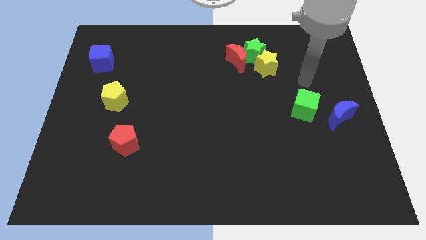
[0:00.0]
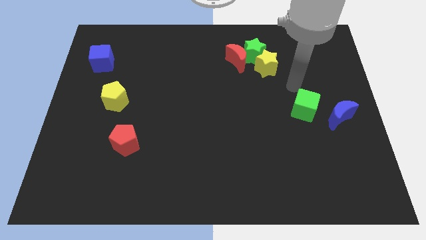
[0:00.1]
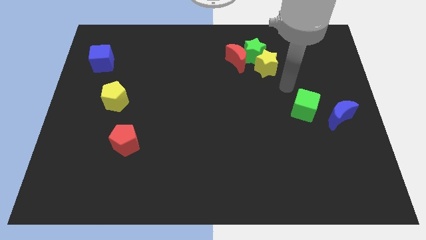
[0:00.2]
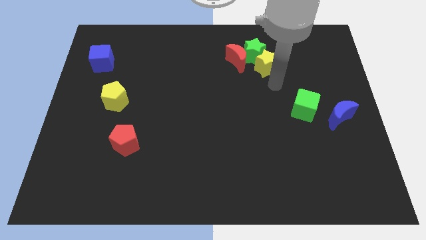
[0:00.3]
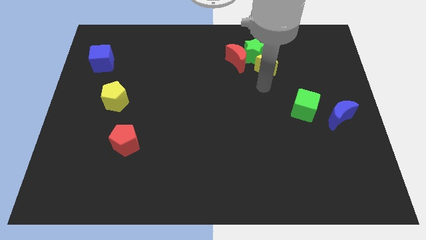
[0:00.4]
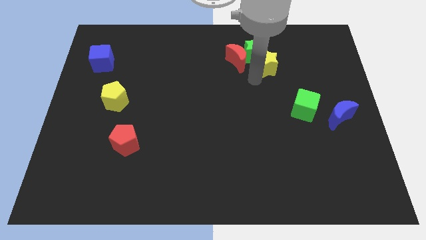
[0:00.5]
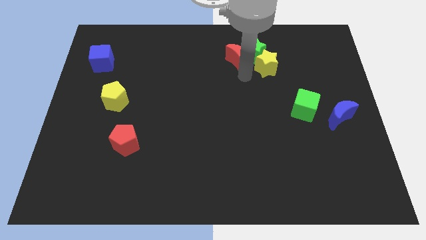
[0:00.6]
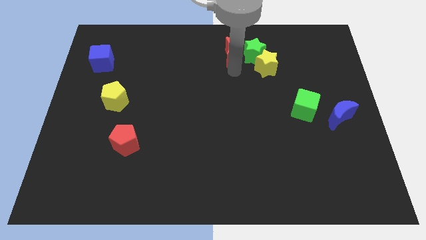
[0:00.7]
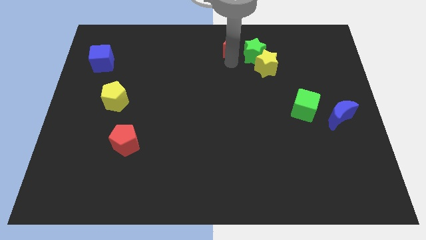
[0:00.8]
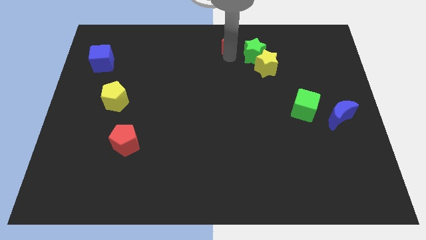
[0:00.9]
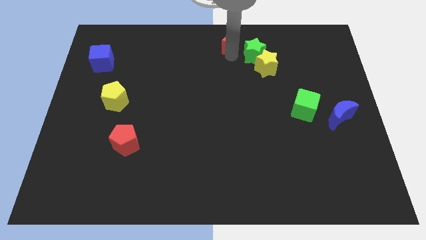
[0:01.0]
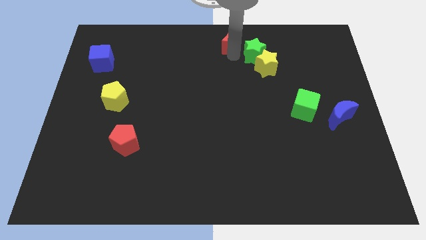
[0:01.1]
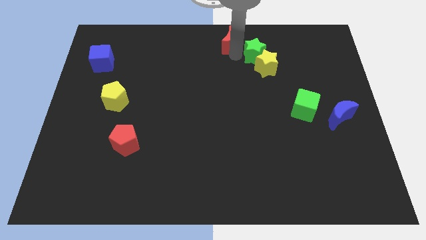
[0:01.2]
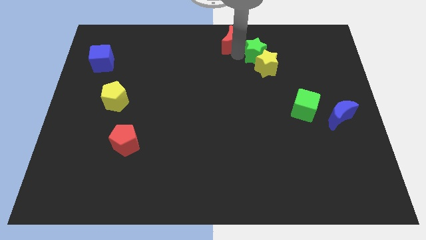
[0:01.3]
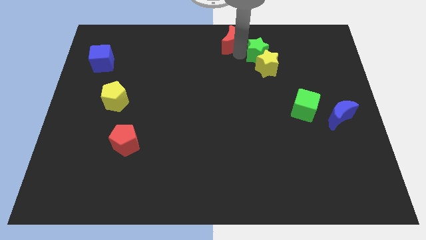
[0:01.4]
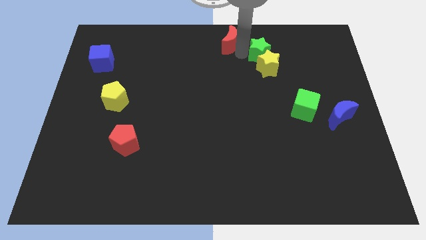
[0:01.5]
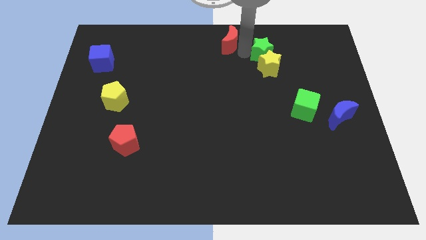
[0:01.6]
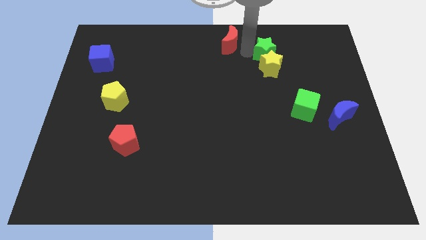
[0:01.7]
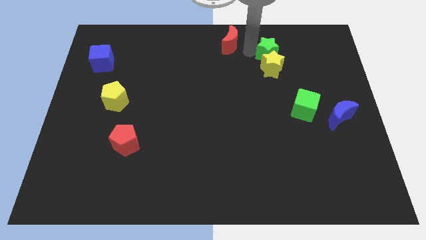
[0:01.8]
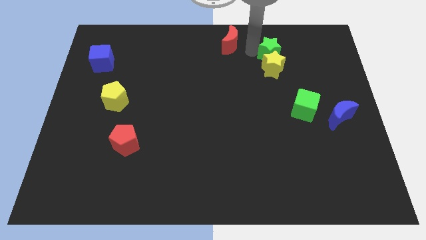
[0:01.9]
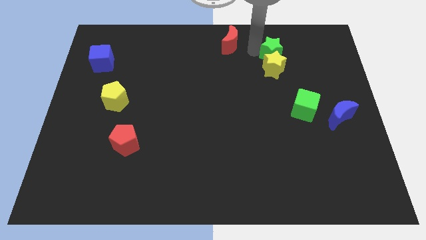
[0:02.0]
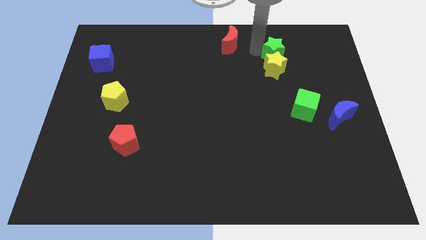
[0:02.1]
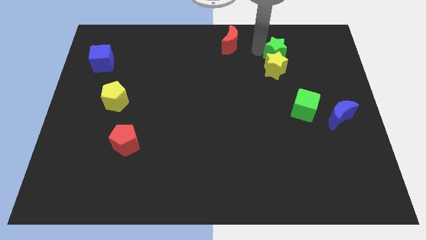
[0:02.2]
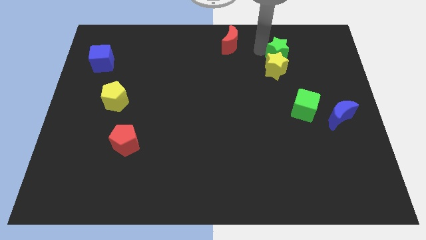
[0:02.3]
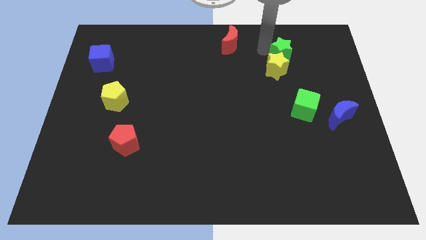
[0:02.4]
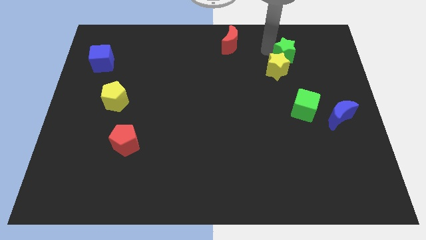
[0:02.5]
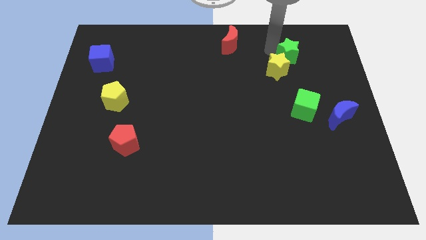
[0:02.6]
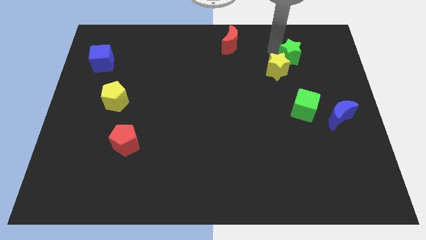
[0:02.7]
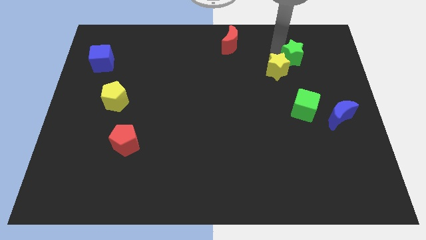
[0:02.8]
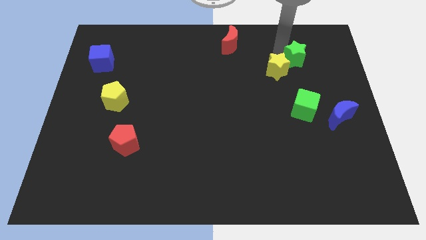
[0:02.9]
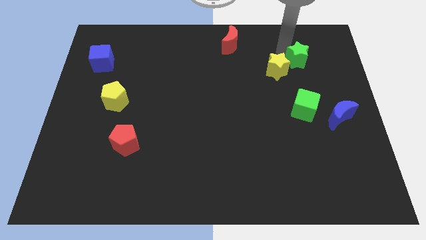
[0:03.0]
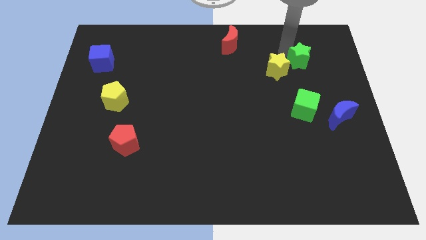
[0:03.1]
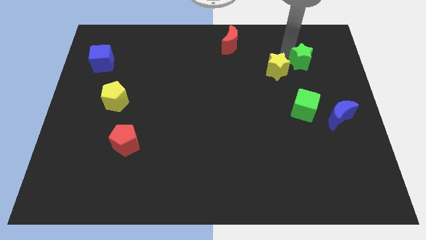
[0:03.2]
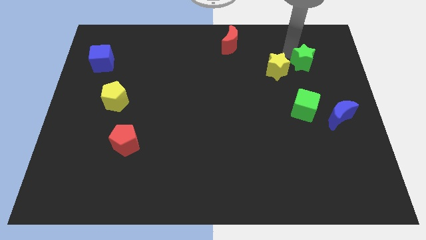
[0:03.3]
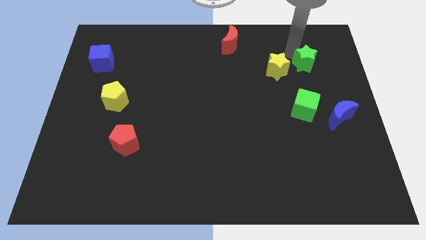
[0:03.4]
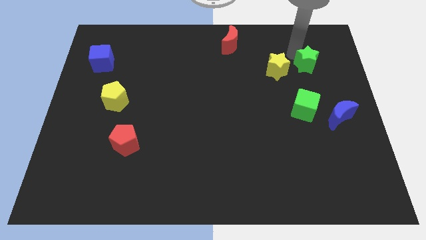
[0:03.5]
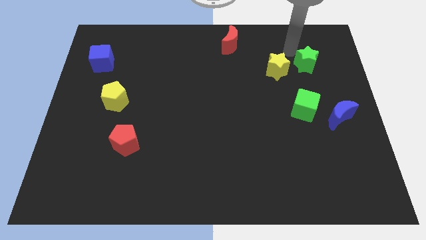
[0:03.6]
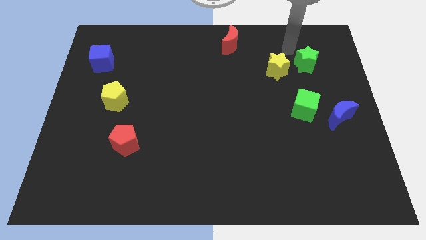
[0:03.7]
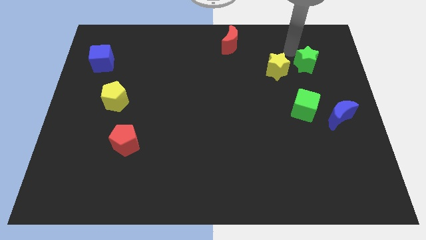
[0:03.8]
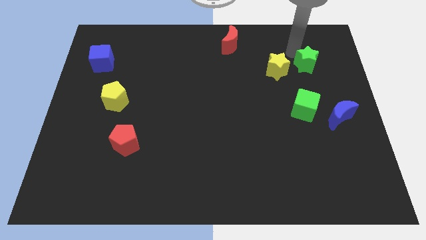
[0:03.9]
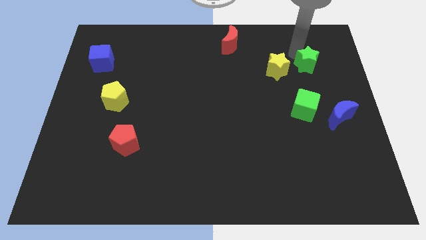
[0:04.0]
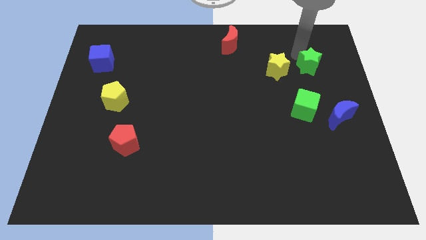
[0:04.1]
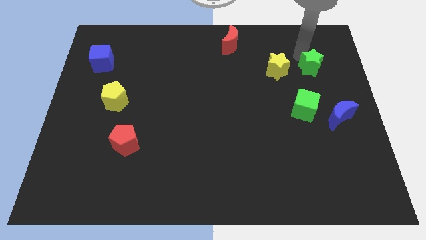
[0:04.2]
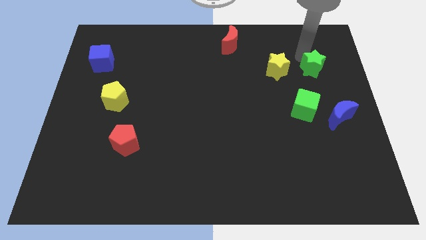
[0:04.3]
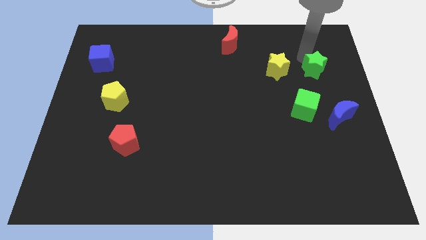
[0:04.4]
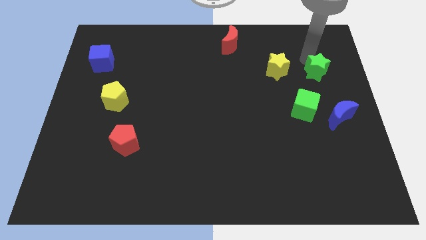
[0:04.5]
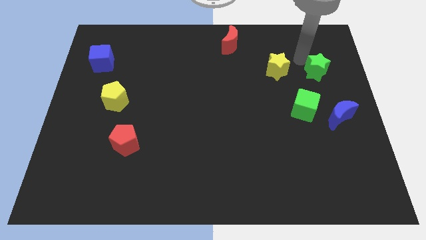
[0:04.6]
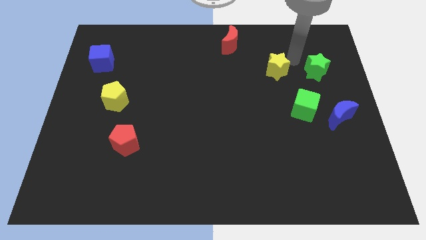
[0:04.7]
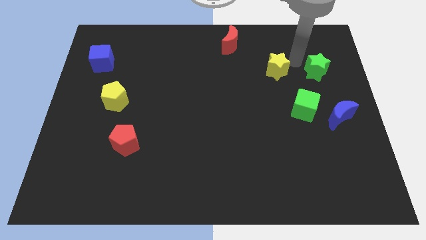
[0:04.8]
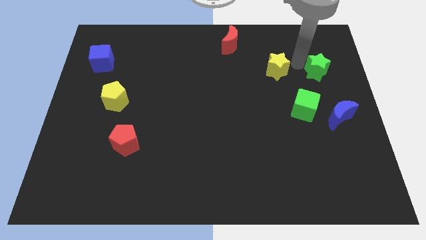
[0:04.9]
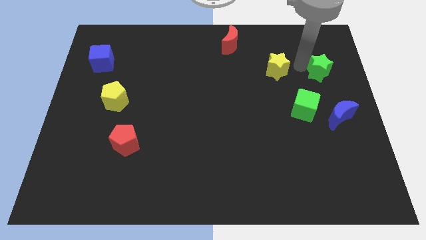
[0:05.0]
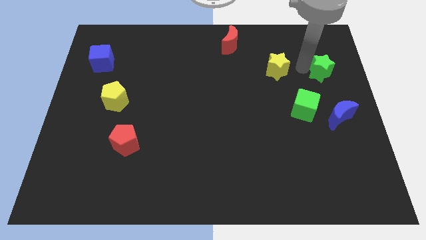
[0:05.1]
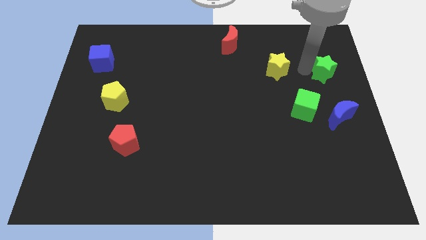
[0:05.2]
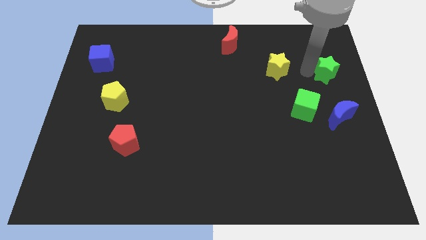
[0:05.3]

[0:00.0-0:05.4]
put the green star to the right side

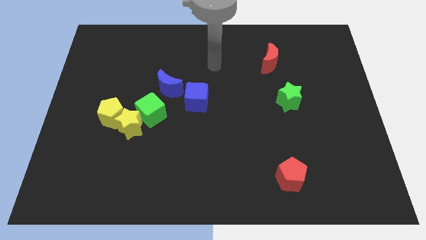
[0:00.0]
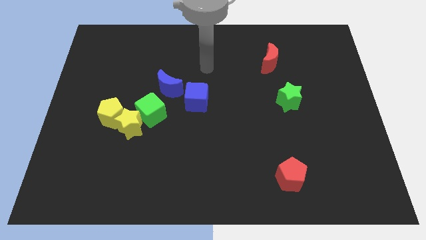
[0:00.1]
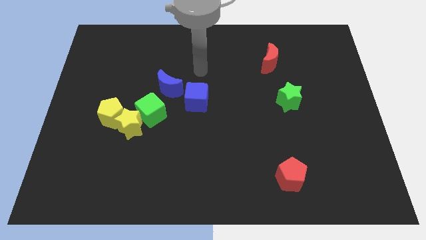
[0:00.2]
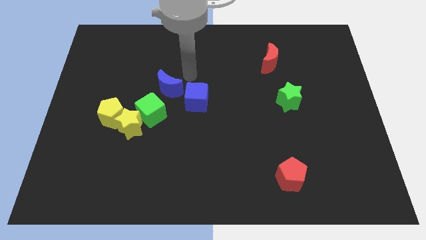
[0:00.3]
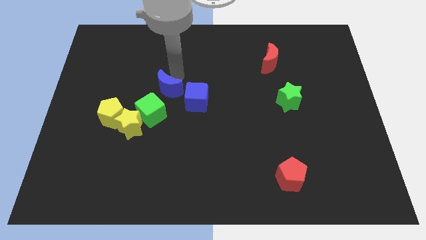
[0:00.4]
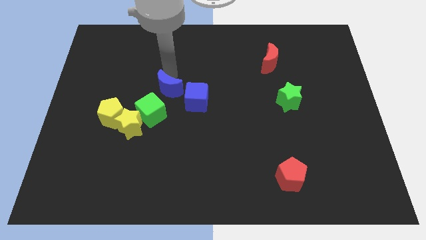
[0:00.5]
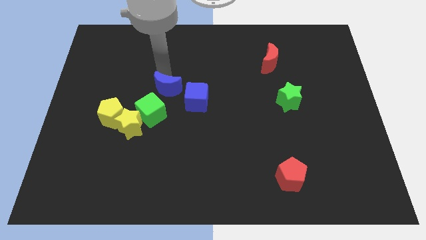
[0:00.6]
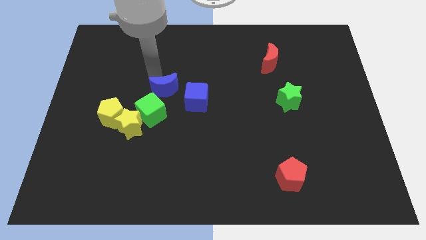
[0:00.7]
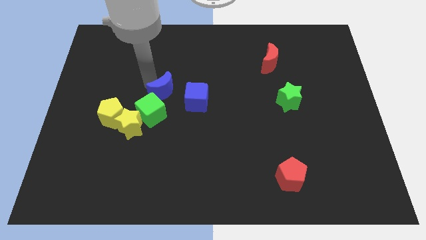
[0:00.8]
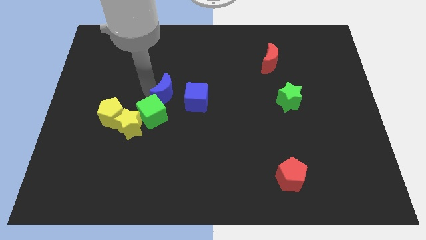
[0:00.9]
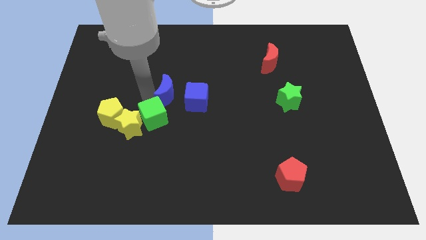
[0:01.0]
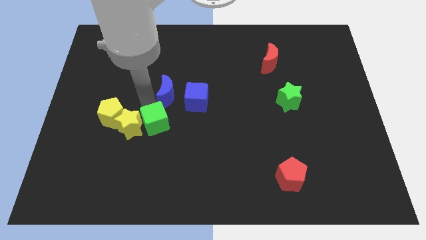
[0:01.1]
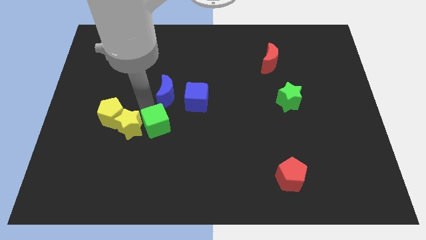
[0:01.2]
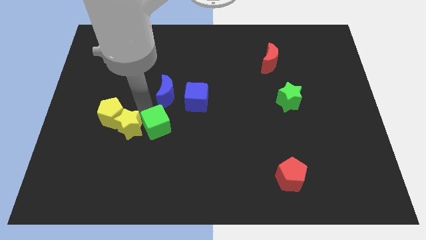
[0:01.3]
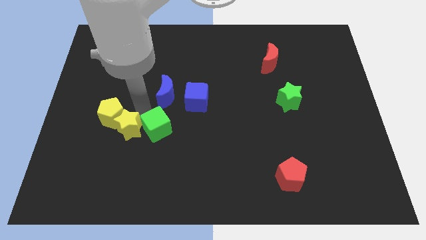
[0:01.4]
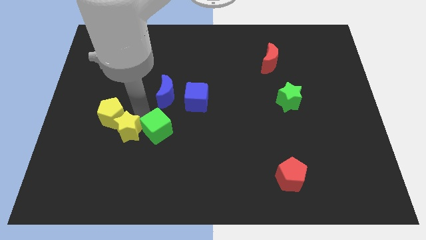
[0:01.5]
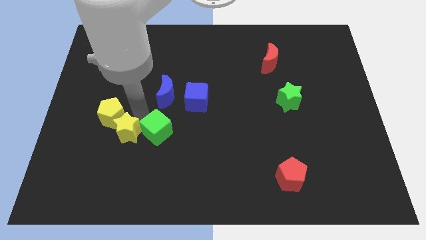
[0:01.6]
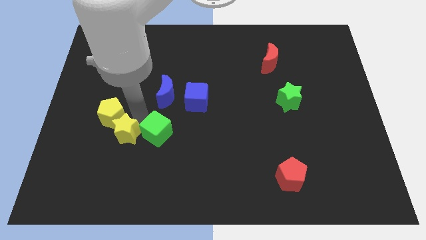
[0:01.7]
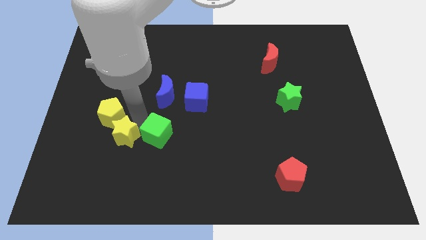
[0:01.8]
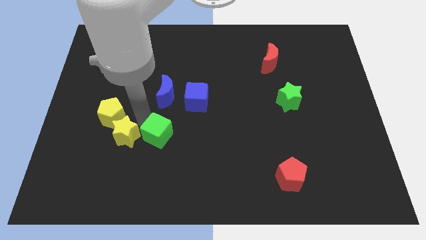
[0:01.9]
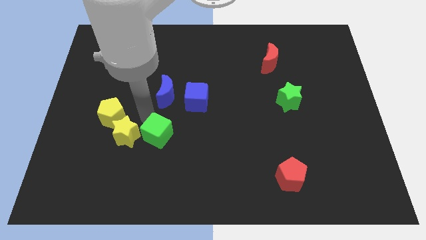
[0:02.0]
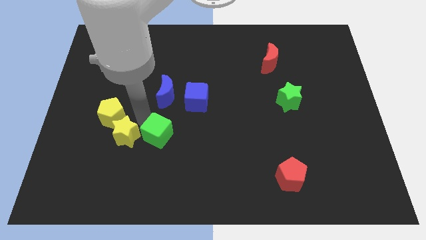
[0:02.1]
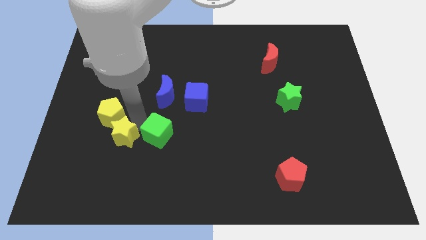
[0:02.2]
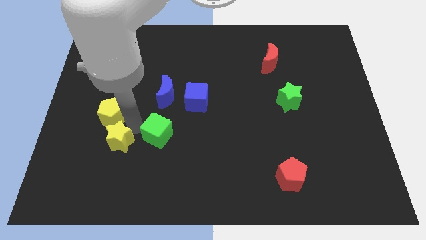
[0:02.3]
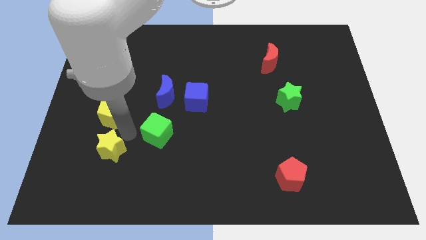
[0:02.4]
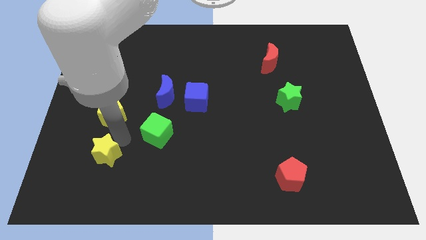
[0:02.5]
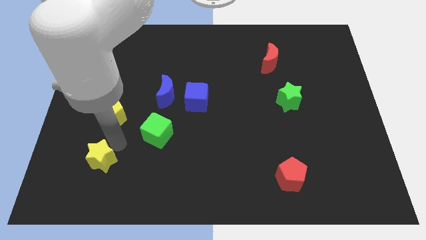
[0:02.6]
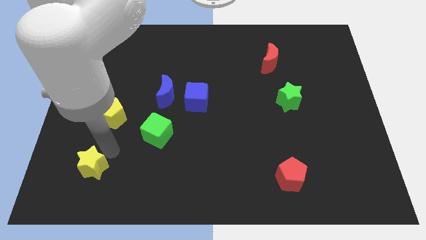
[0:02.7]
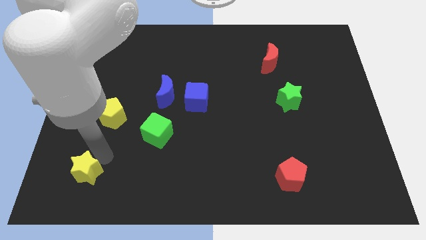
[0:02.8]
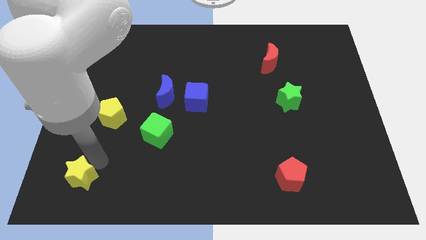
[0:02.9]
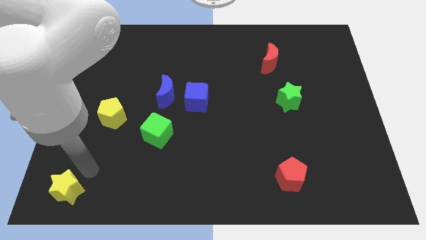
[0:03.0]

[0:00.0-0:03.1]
push the yellow star to the bottom left
